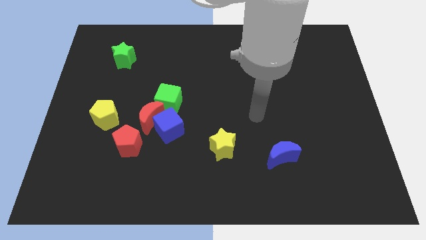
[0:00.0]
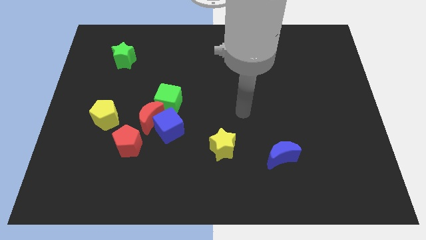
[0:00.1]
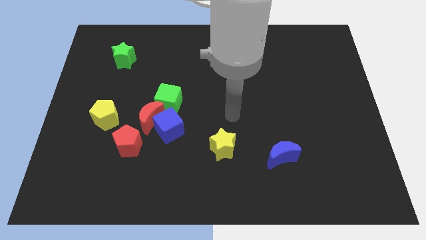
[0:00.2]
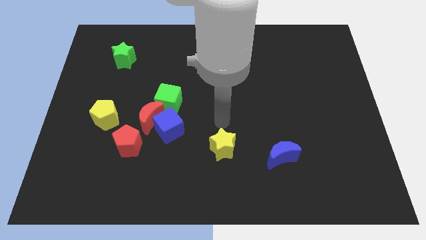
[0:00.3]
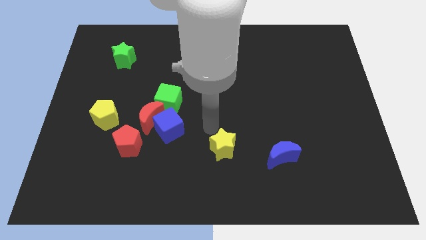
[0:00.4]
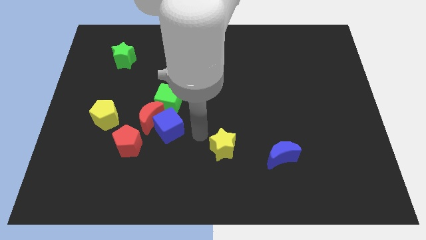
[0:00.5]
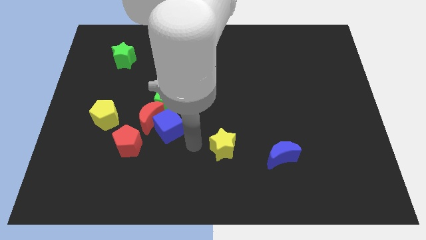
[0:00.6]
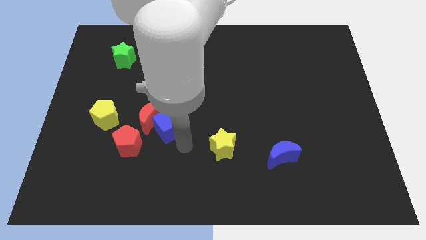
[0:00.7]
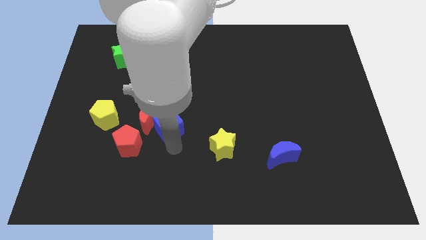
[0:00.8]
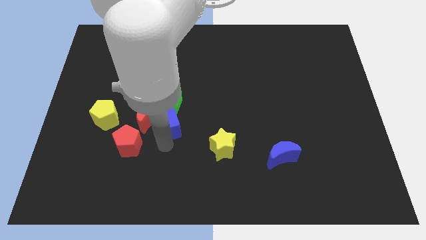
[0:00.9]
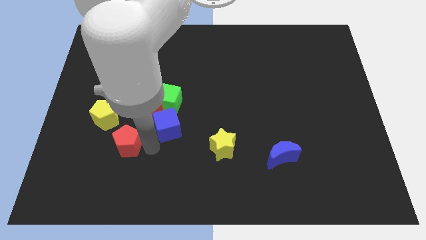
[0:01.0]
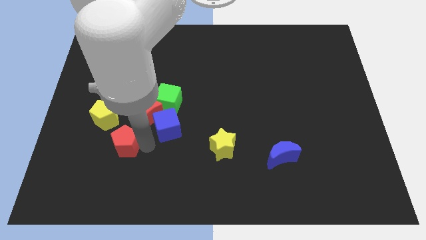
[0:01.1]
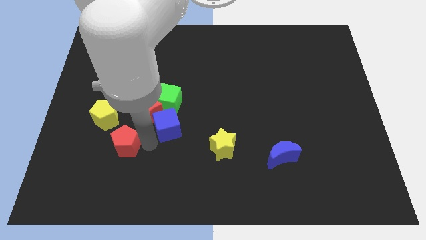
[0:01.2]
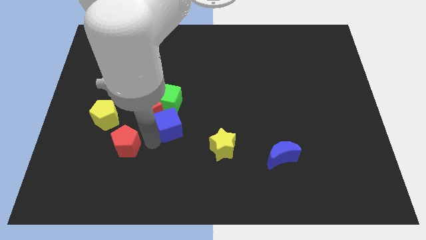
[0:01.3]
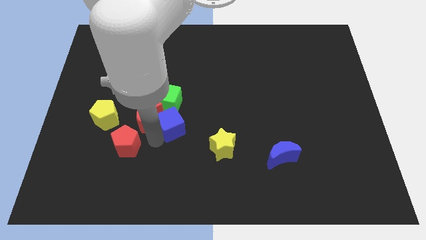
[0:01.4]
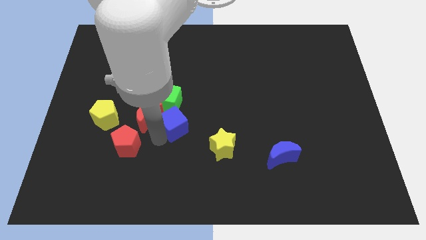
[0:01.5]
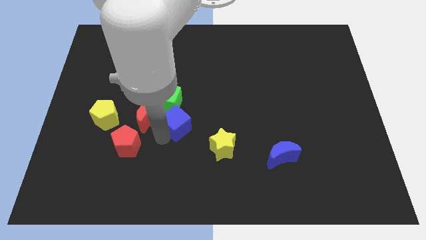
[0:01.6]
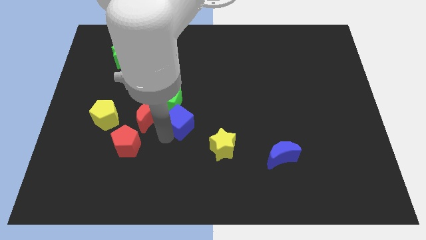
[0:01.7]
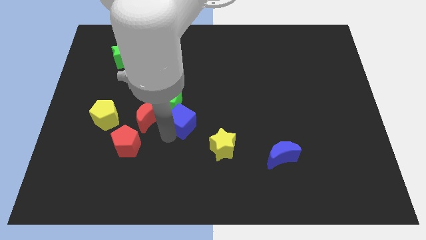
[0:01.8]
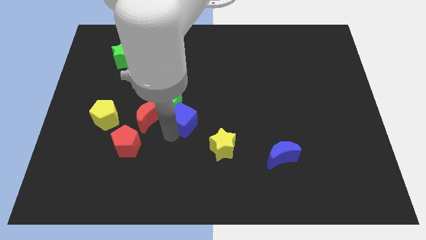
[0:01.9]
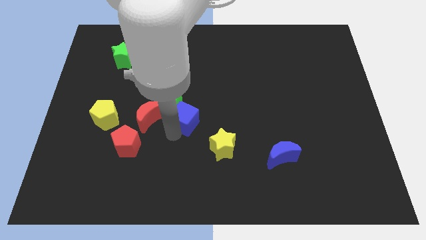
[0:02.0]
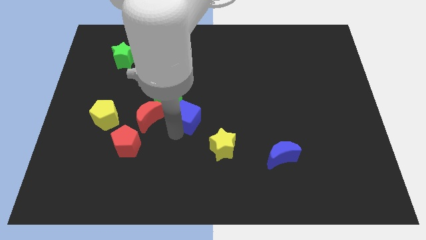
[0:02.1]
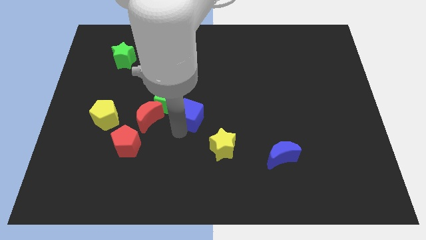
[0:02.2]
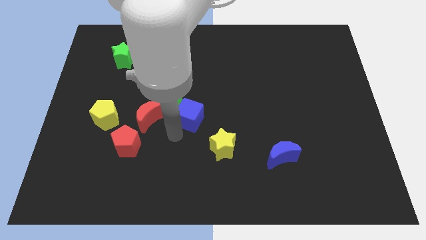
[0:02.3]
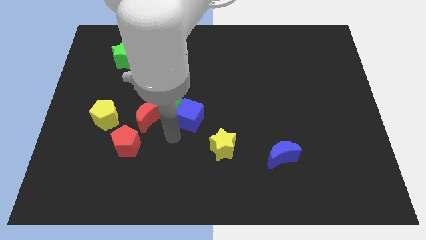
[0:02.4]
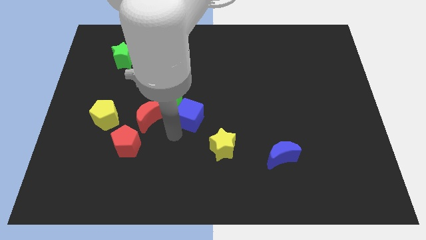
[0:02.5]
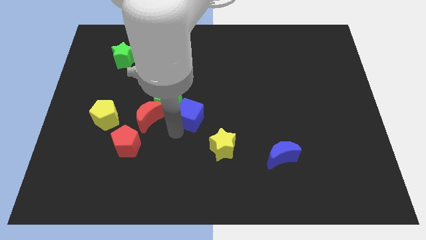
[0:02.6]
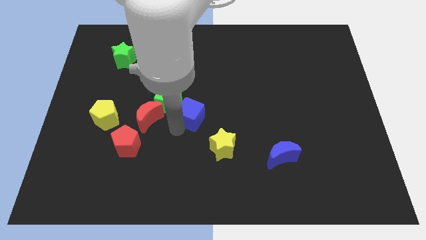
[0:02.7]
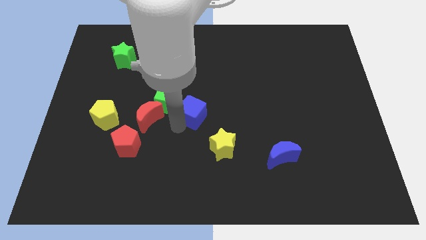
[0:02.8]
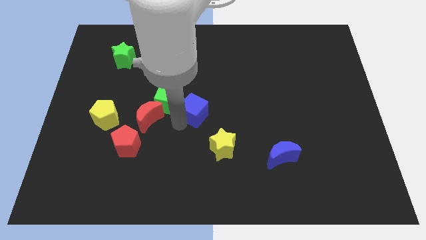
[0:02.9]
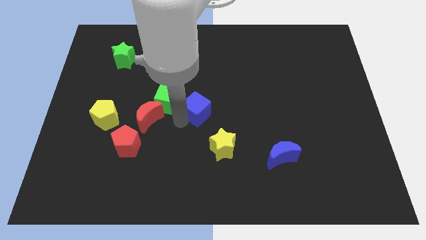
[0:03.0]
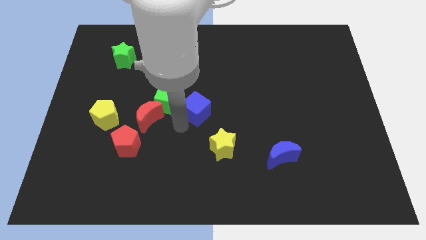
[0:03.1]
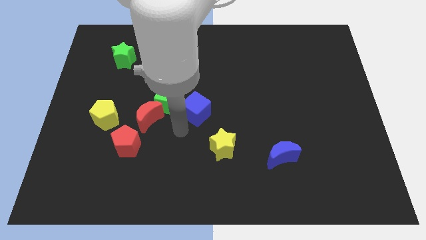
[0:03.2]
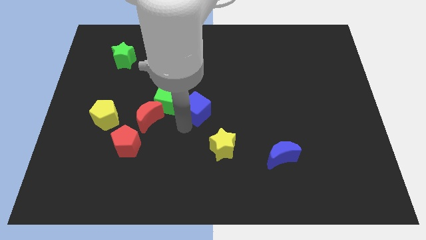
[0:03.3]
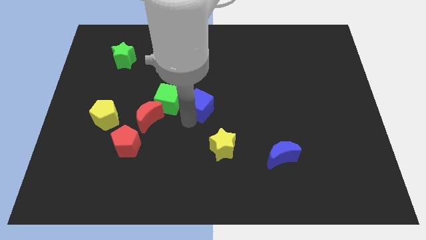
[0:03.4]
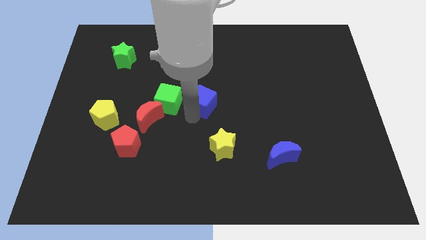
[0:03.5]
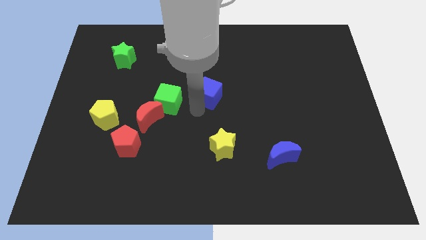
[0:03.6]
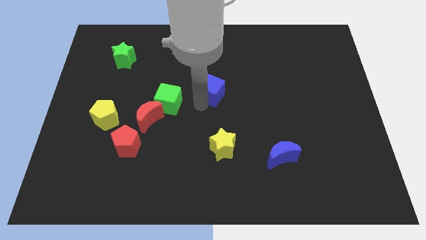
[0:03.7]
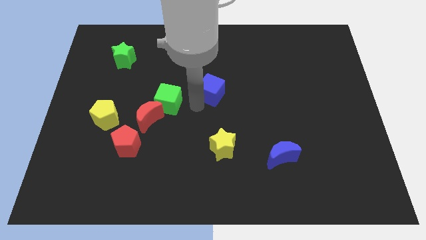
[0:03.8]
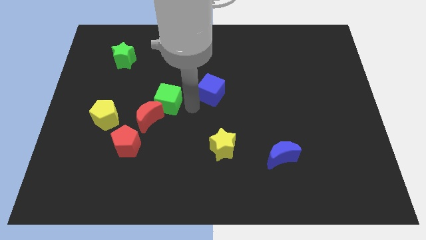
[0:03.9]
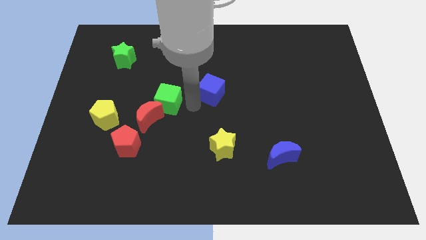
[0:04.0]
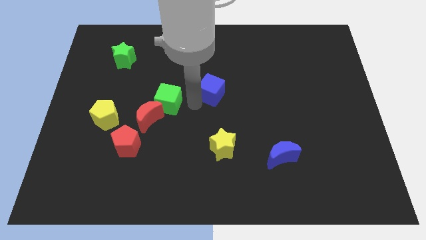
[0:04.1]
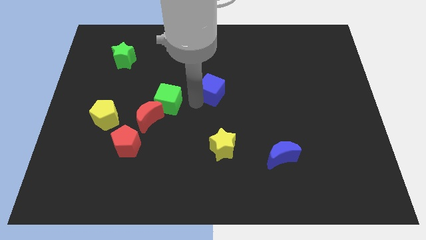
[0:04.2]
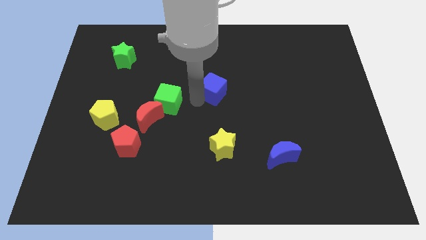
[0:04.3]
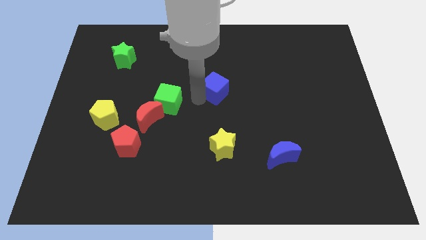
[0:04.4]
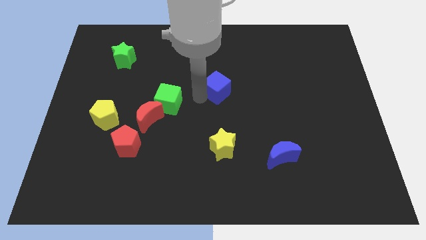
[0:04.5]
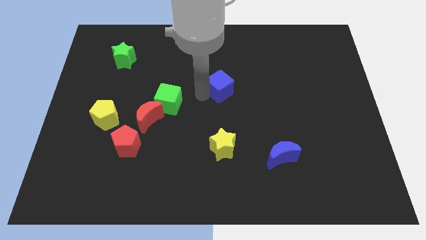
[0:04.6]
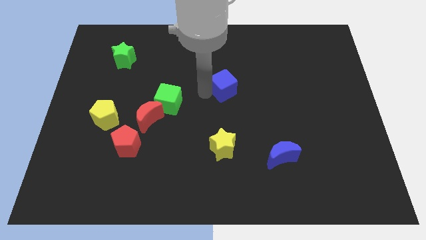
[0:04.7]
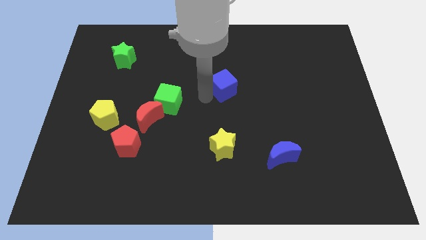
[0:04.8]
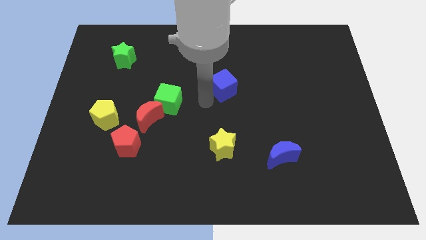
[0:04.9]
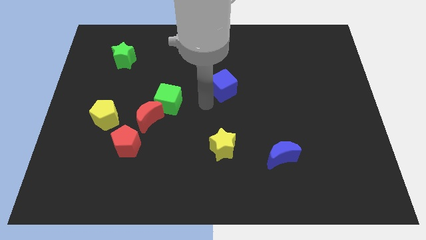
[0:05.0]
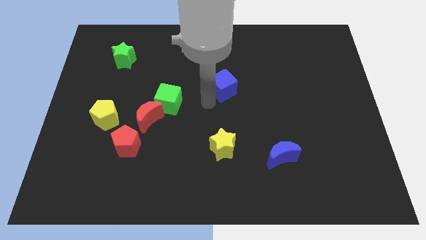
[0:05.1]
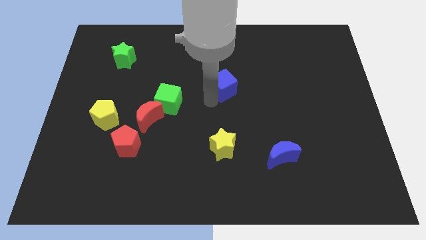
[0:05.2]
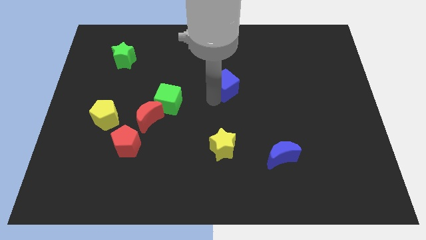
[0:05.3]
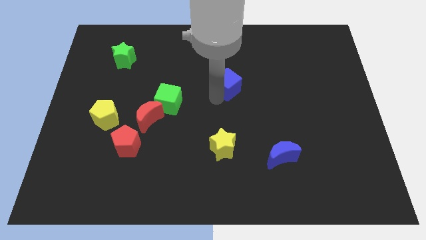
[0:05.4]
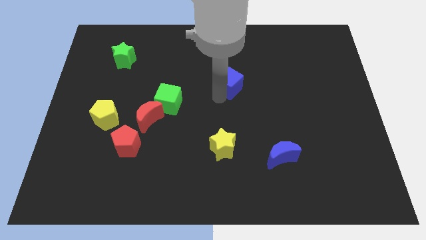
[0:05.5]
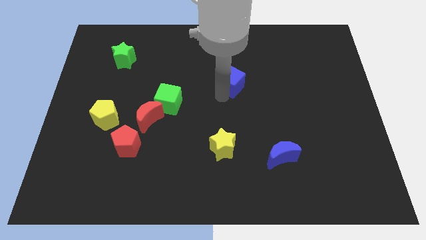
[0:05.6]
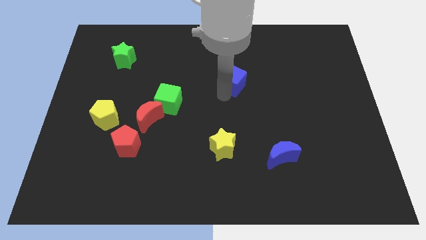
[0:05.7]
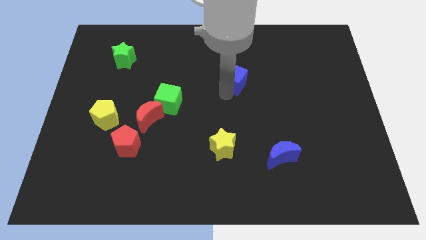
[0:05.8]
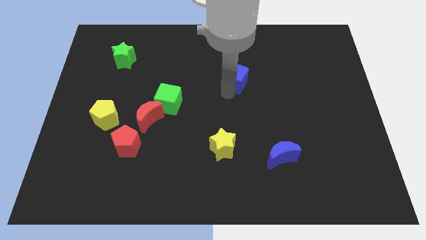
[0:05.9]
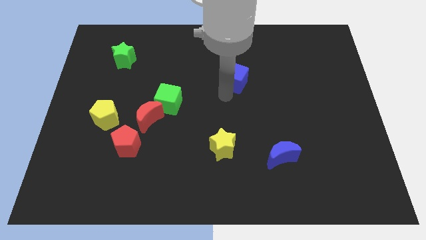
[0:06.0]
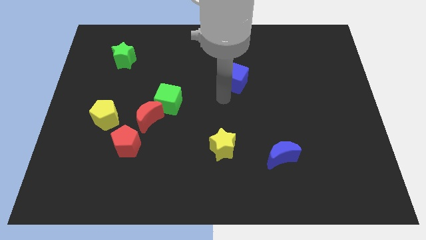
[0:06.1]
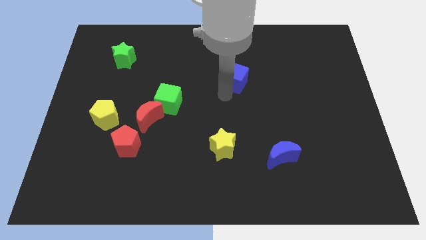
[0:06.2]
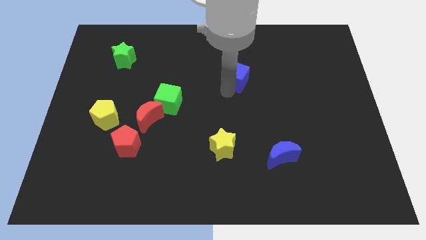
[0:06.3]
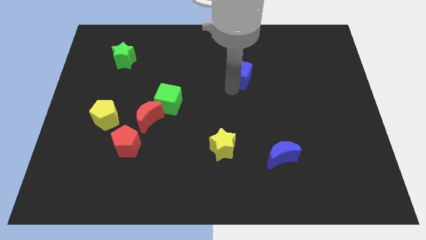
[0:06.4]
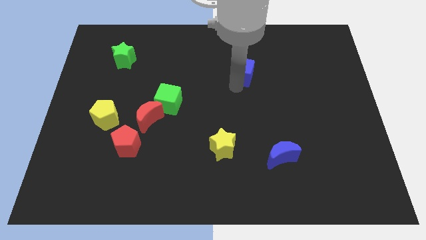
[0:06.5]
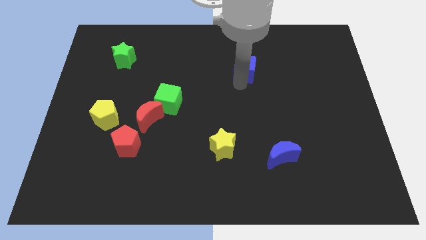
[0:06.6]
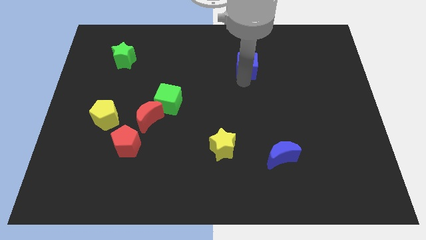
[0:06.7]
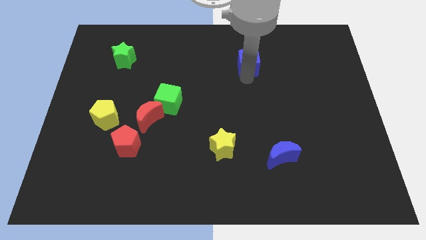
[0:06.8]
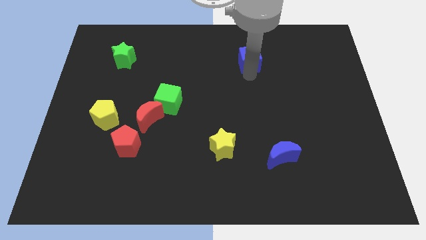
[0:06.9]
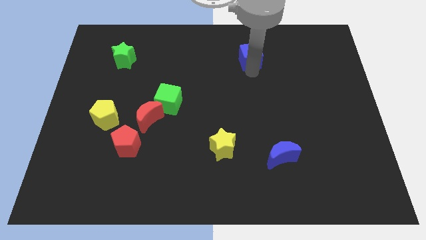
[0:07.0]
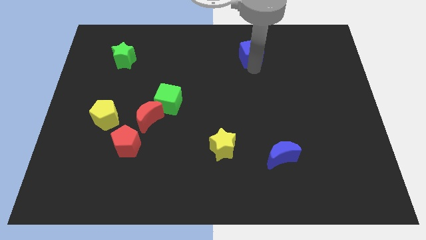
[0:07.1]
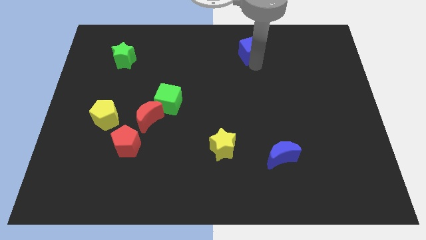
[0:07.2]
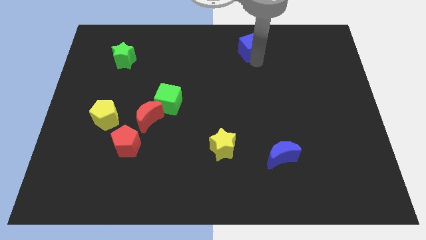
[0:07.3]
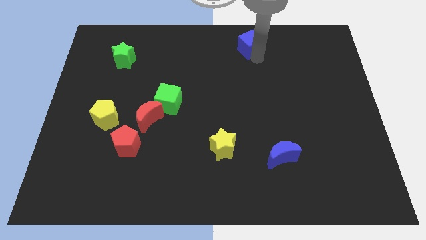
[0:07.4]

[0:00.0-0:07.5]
move the blue cube to the top side

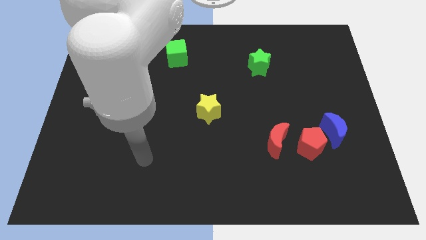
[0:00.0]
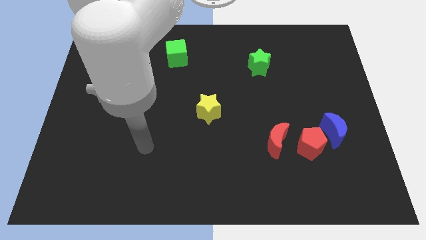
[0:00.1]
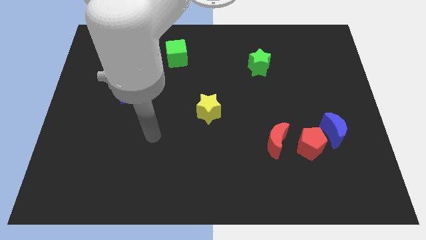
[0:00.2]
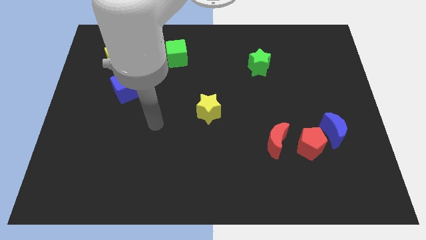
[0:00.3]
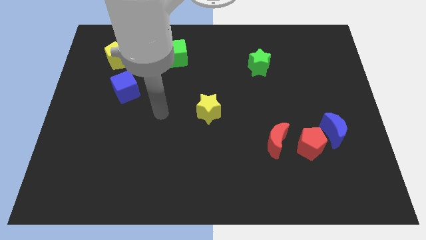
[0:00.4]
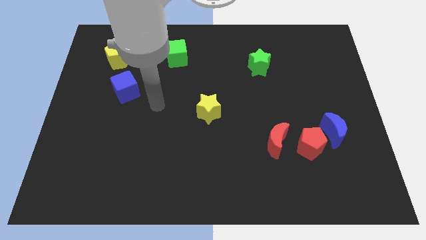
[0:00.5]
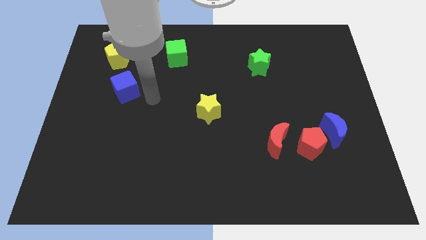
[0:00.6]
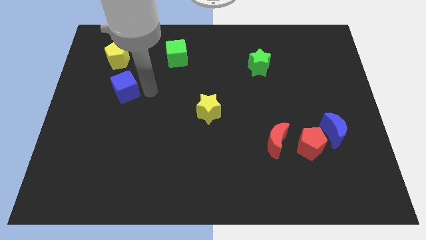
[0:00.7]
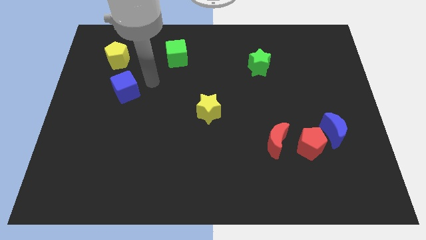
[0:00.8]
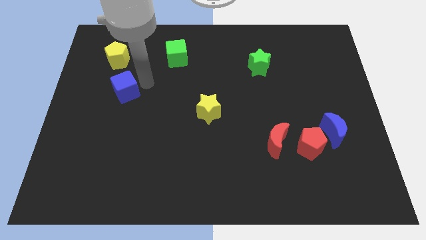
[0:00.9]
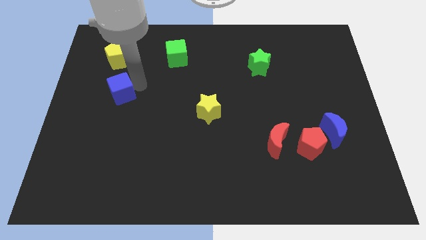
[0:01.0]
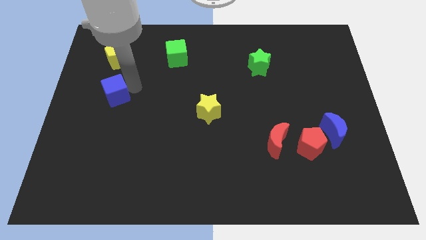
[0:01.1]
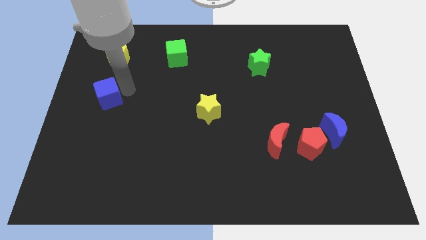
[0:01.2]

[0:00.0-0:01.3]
push the blue cube to the left side of the board
